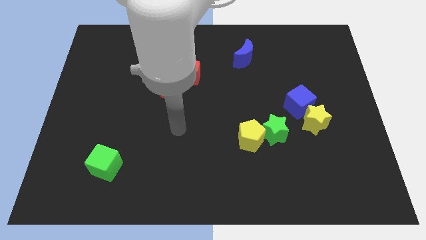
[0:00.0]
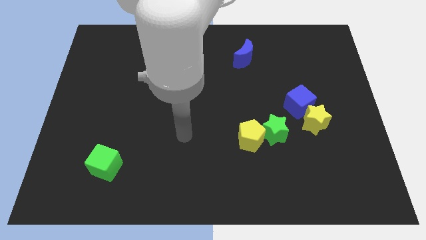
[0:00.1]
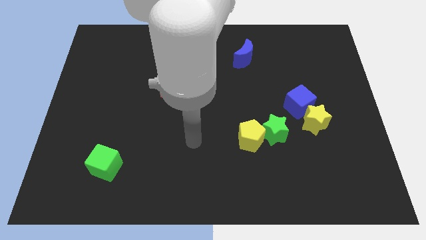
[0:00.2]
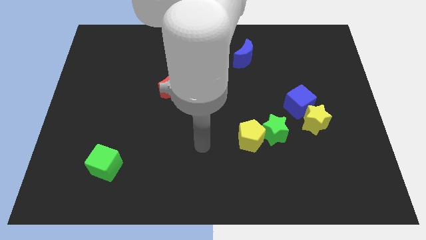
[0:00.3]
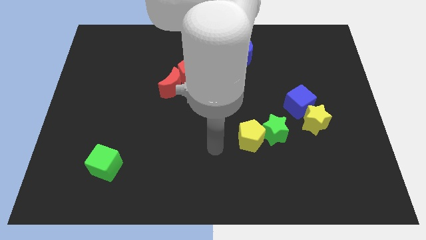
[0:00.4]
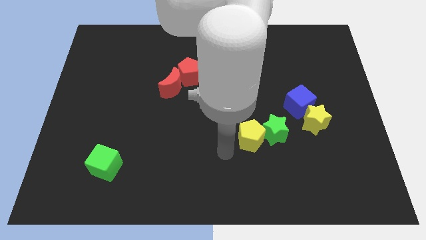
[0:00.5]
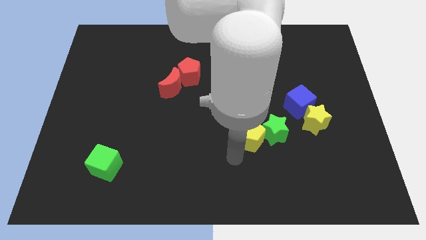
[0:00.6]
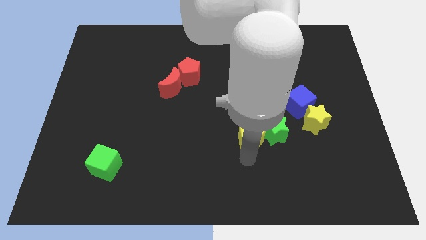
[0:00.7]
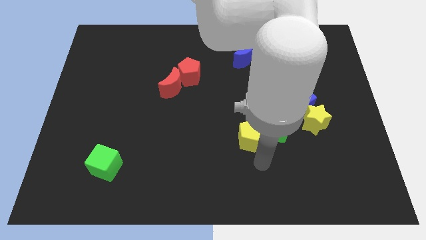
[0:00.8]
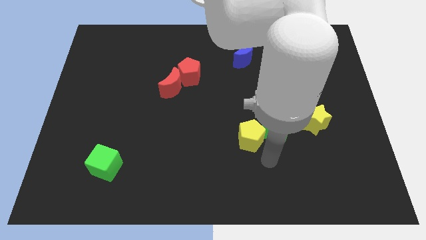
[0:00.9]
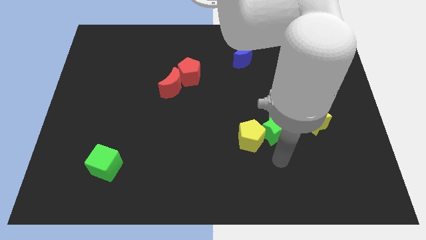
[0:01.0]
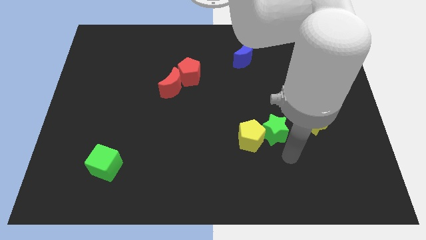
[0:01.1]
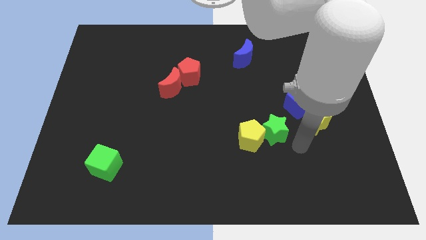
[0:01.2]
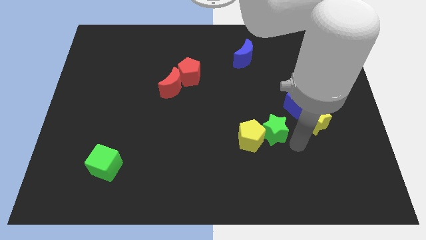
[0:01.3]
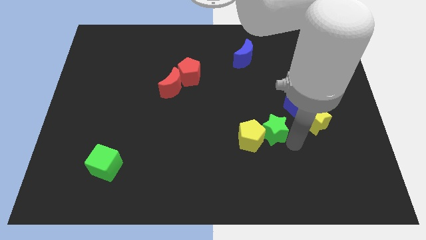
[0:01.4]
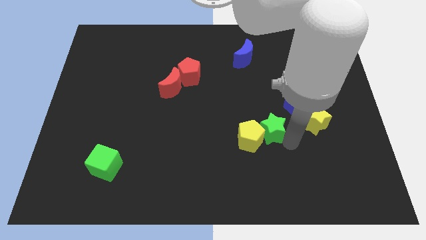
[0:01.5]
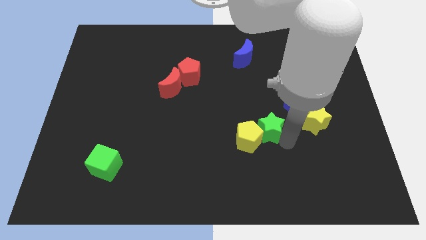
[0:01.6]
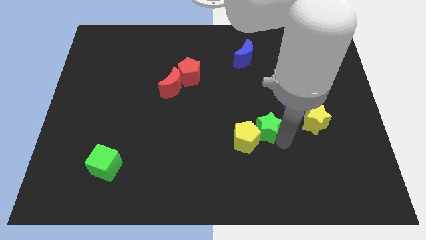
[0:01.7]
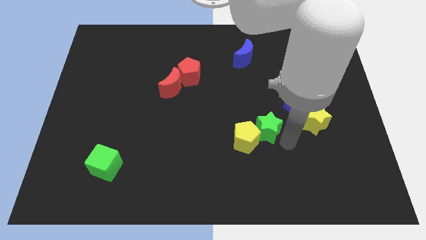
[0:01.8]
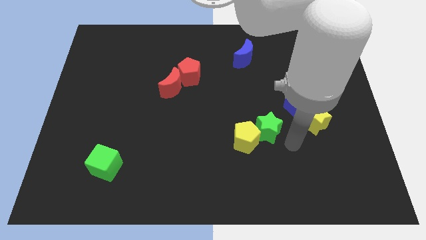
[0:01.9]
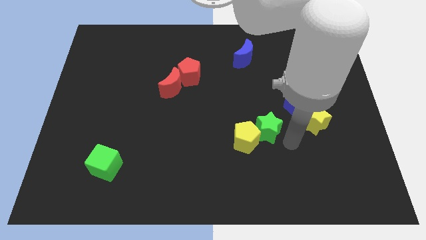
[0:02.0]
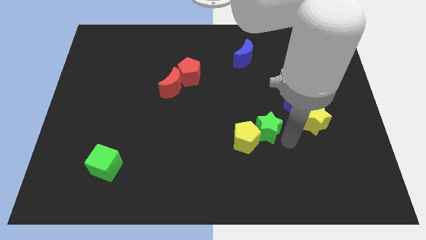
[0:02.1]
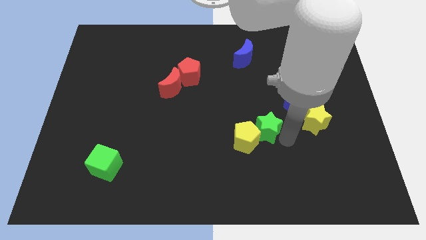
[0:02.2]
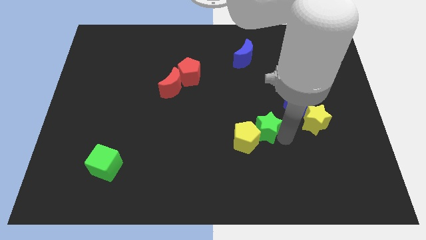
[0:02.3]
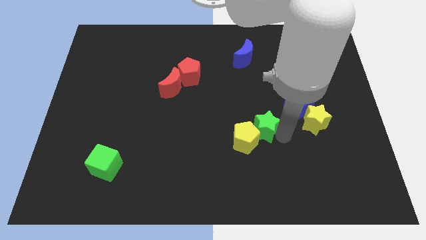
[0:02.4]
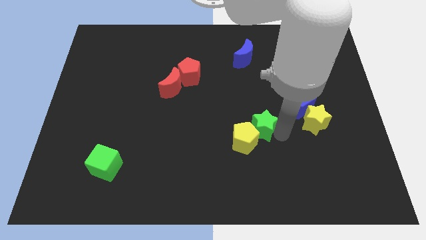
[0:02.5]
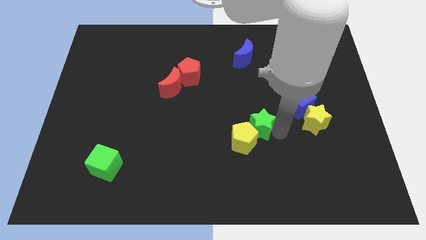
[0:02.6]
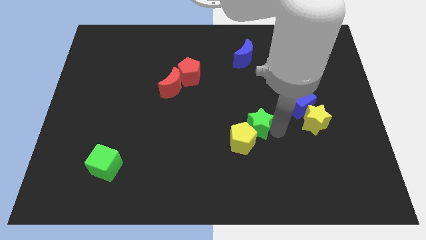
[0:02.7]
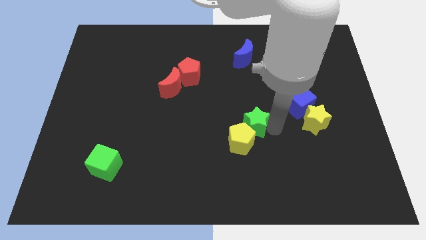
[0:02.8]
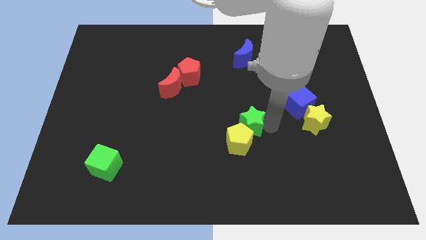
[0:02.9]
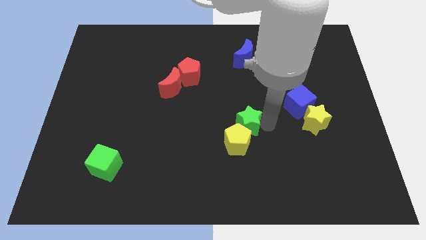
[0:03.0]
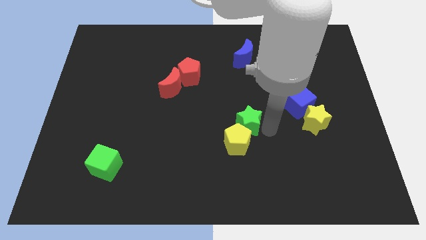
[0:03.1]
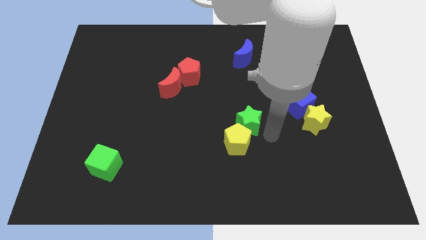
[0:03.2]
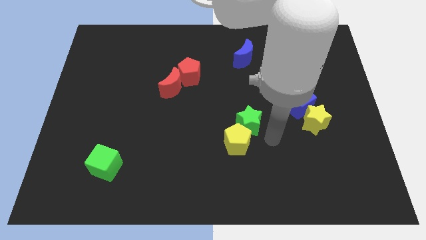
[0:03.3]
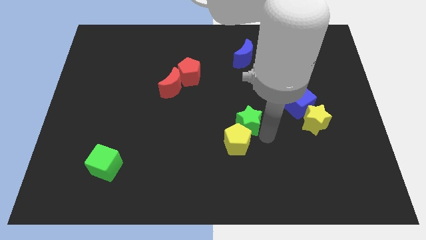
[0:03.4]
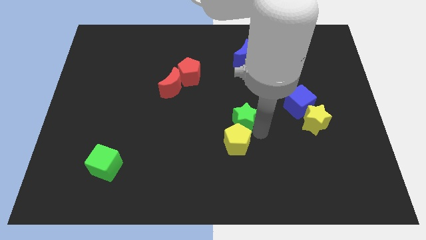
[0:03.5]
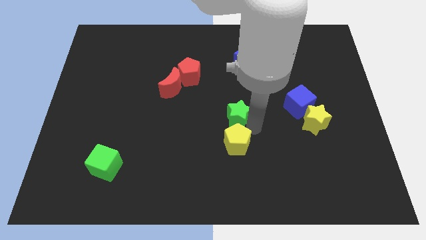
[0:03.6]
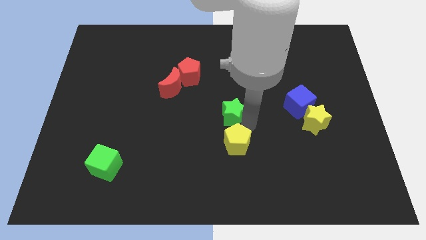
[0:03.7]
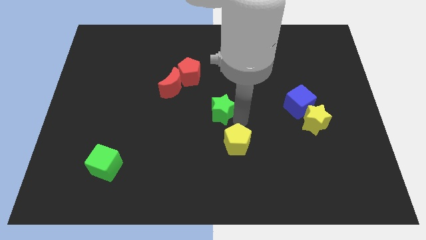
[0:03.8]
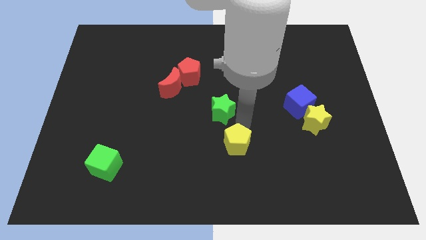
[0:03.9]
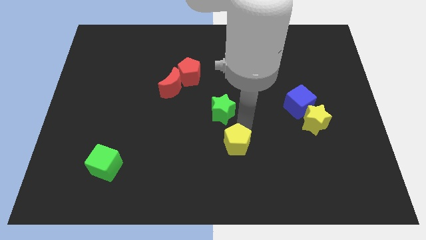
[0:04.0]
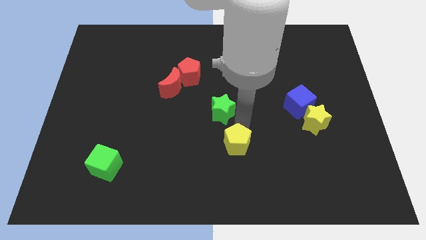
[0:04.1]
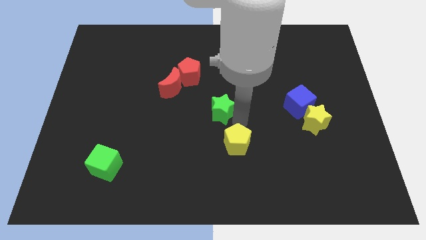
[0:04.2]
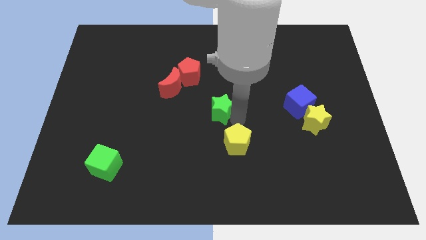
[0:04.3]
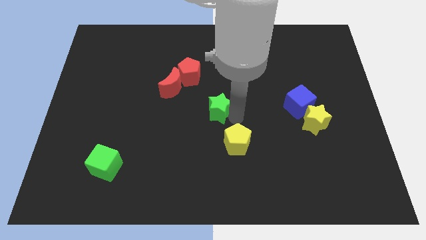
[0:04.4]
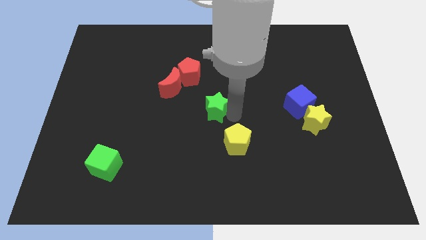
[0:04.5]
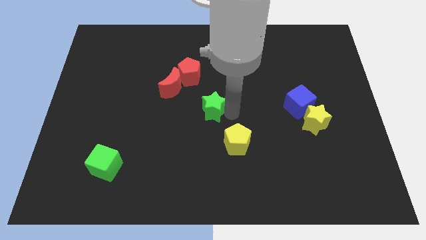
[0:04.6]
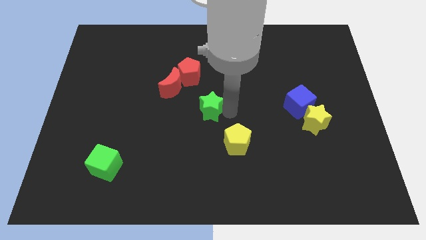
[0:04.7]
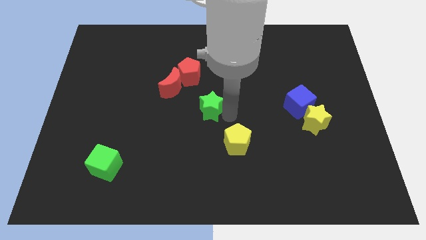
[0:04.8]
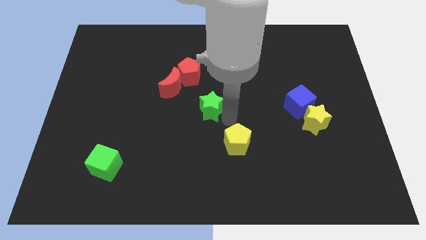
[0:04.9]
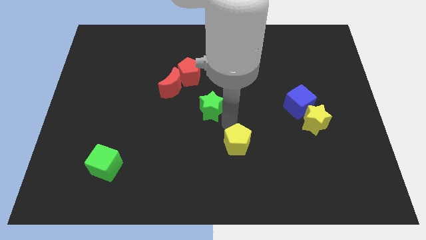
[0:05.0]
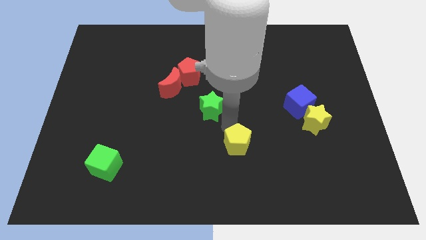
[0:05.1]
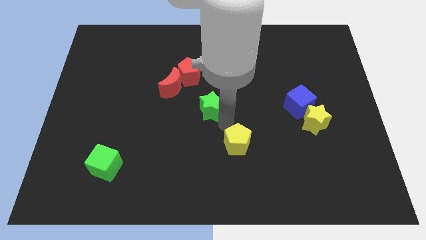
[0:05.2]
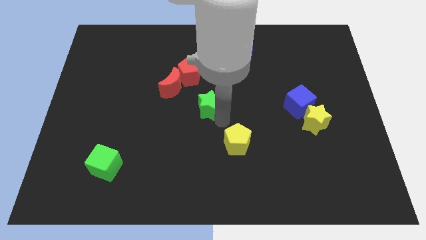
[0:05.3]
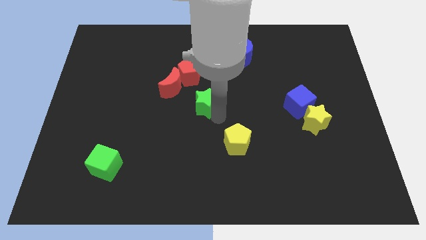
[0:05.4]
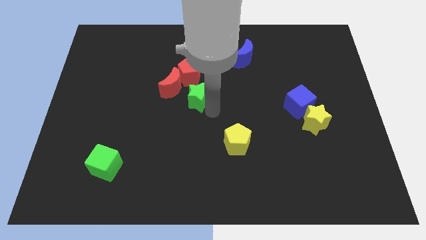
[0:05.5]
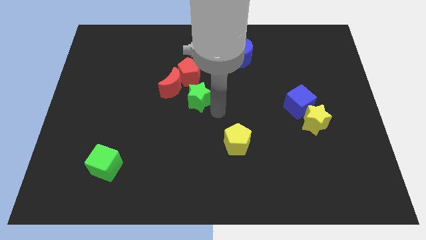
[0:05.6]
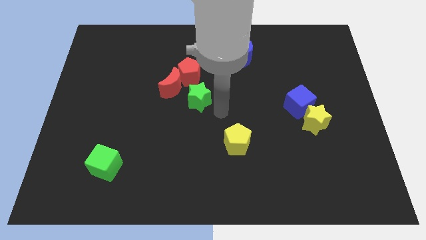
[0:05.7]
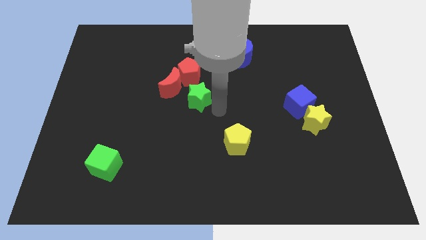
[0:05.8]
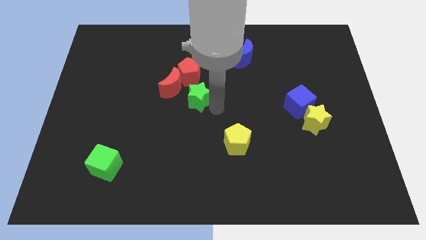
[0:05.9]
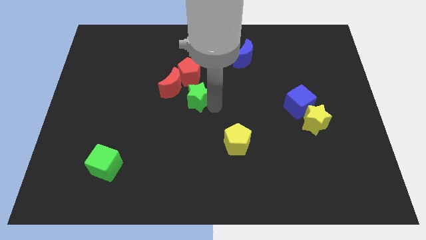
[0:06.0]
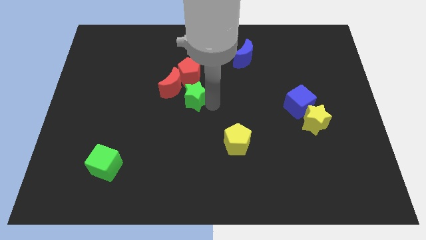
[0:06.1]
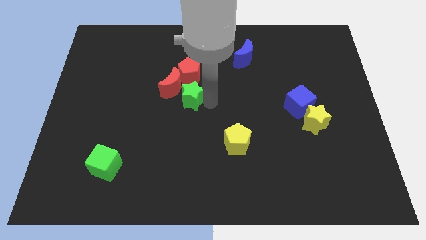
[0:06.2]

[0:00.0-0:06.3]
put the green star close to the red moon

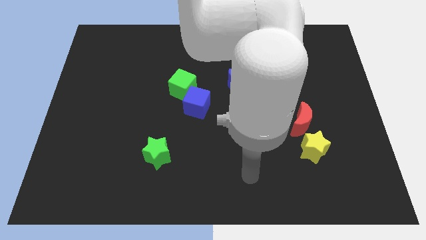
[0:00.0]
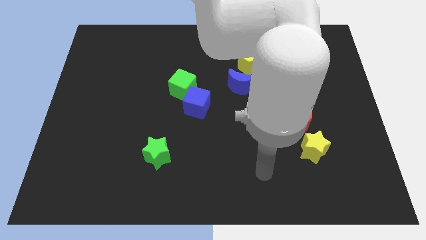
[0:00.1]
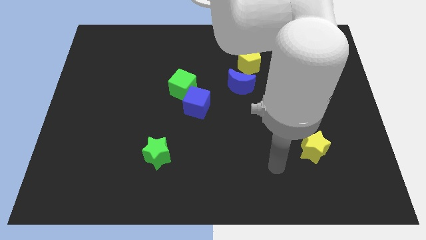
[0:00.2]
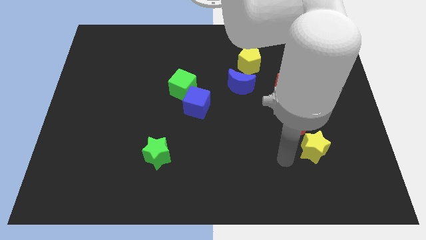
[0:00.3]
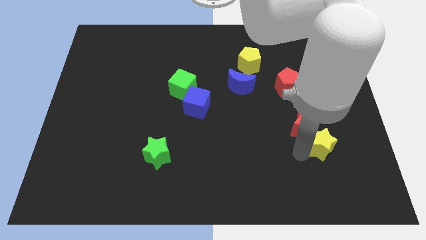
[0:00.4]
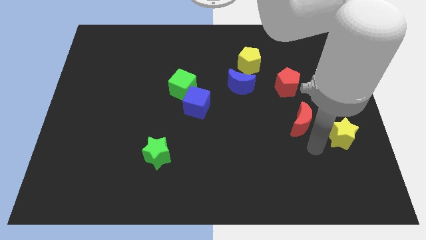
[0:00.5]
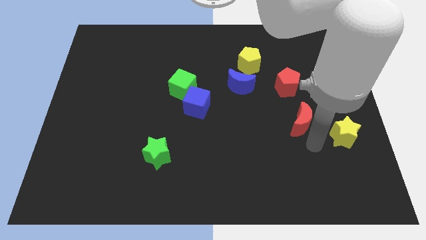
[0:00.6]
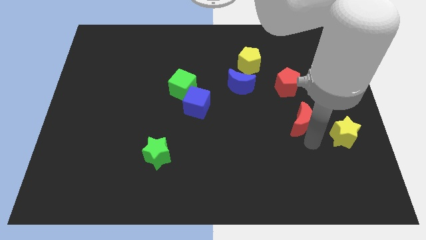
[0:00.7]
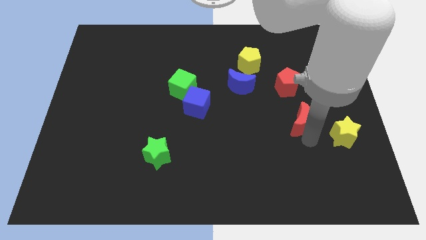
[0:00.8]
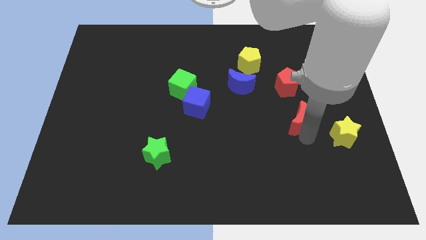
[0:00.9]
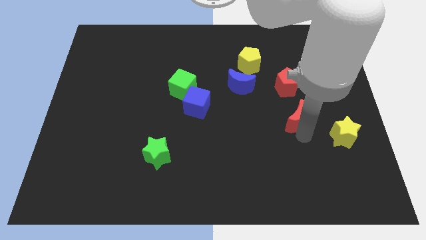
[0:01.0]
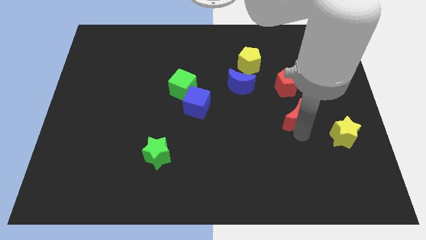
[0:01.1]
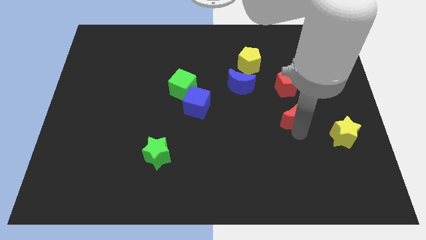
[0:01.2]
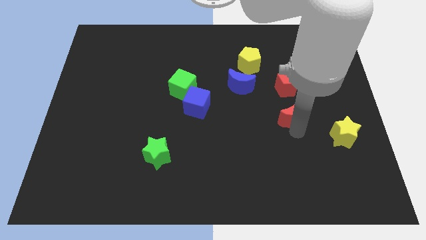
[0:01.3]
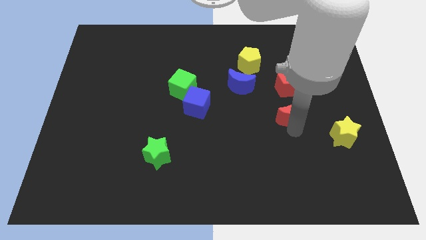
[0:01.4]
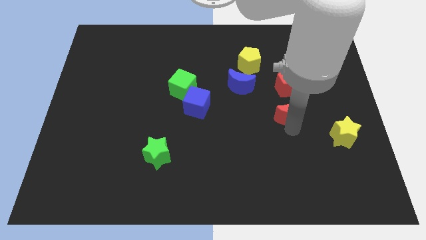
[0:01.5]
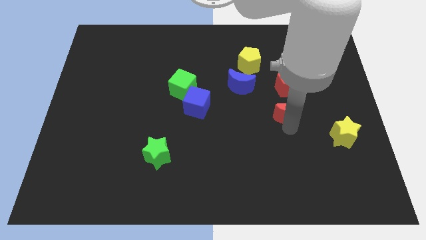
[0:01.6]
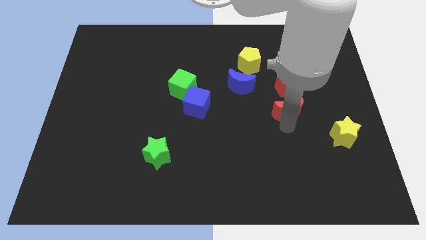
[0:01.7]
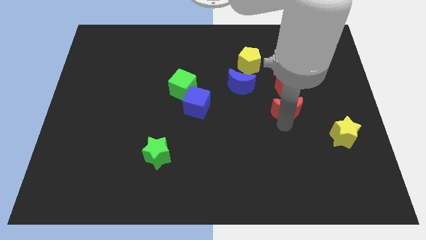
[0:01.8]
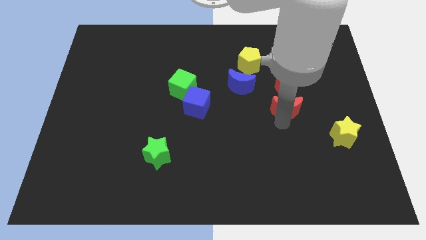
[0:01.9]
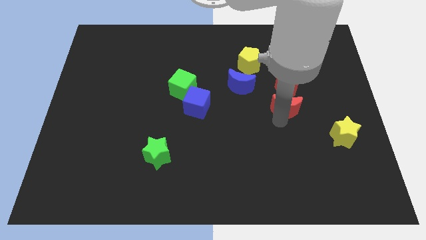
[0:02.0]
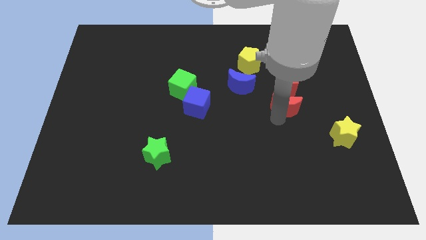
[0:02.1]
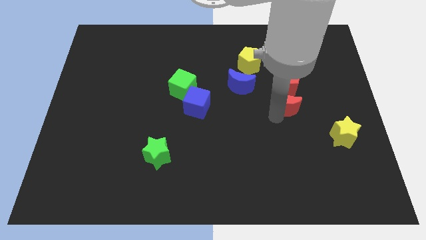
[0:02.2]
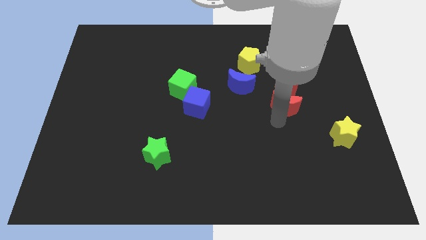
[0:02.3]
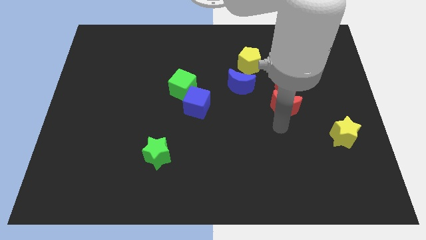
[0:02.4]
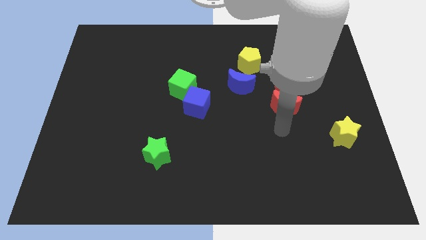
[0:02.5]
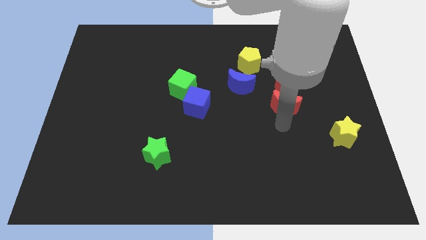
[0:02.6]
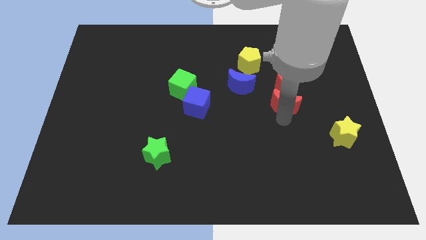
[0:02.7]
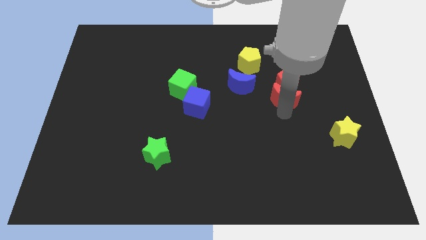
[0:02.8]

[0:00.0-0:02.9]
move the red moon to the red pentagon
